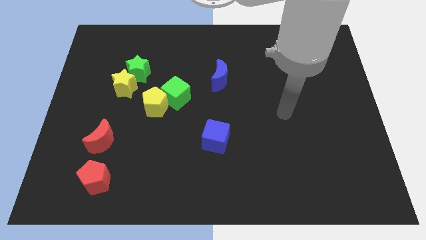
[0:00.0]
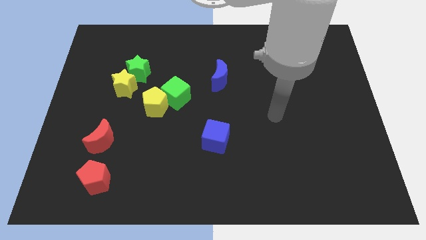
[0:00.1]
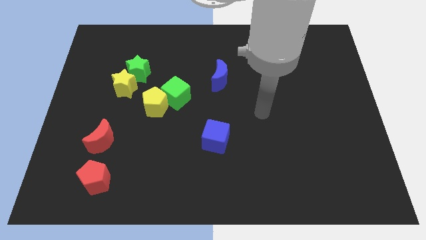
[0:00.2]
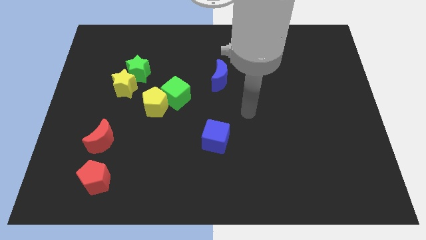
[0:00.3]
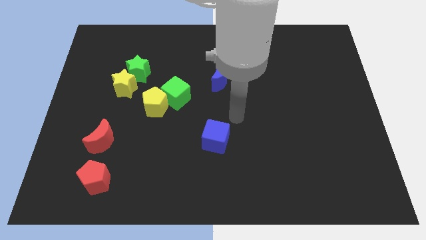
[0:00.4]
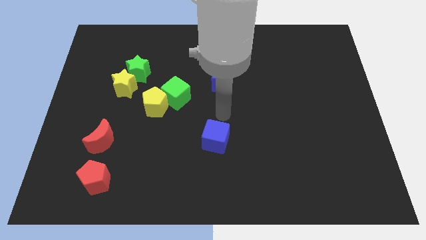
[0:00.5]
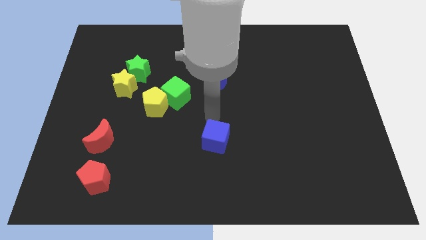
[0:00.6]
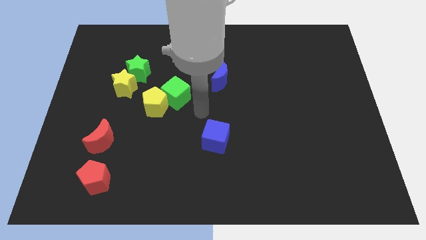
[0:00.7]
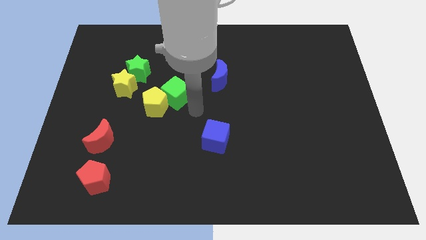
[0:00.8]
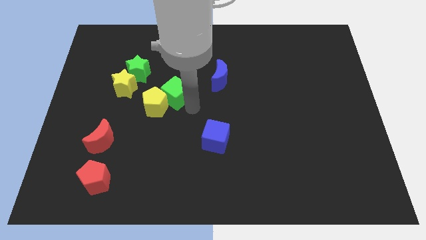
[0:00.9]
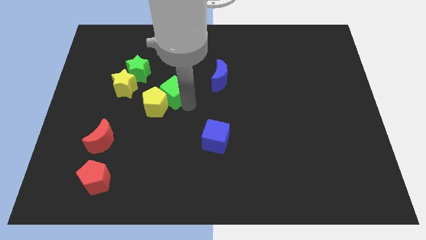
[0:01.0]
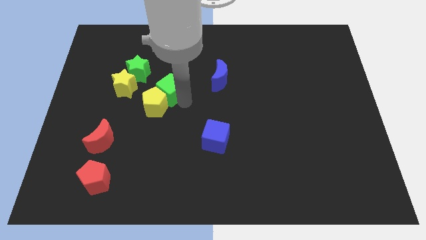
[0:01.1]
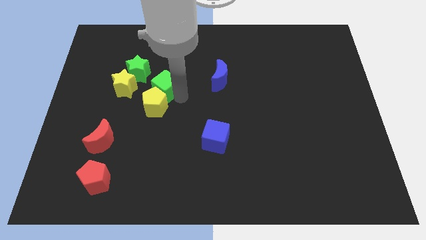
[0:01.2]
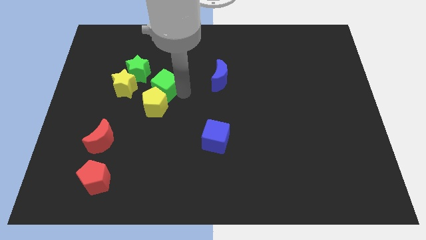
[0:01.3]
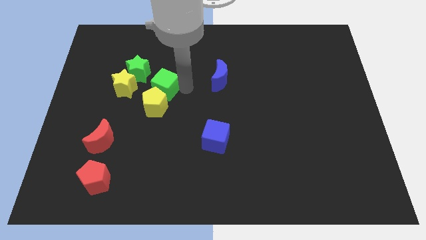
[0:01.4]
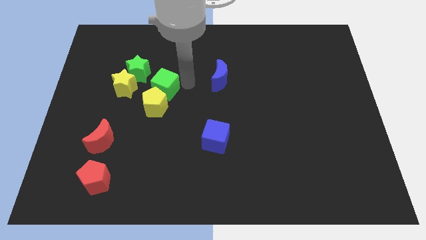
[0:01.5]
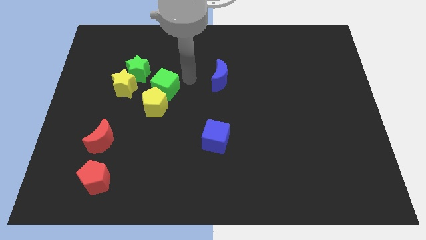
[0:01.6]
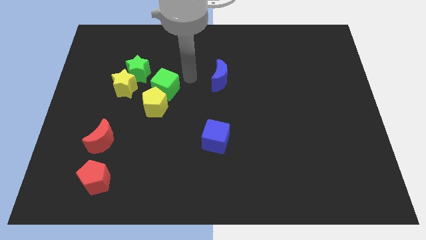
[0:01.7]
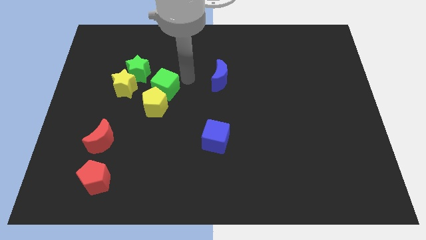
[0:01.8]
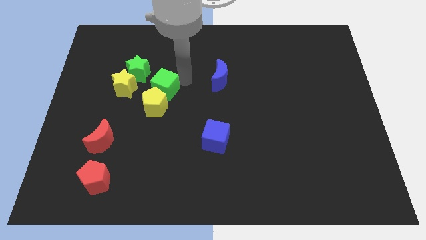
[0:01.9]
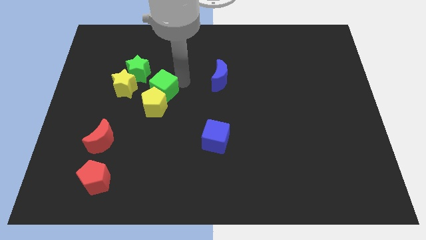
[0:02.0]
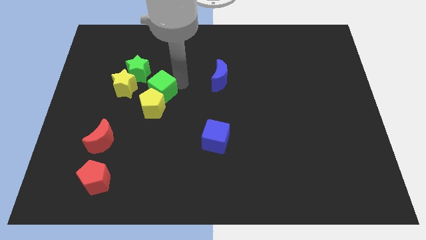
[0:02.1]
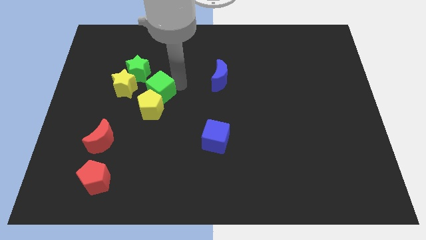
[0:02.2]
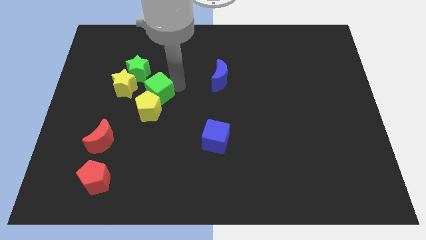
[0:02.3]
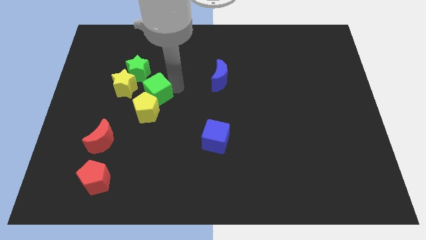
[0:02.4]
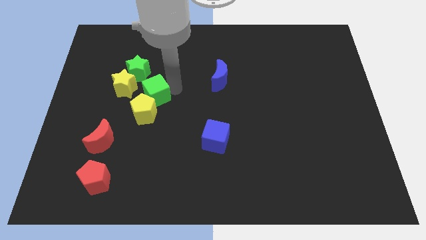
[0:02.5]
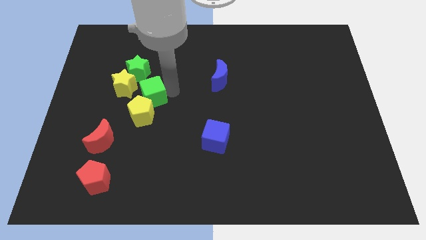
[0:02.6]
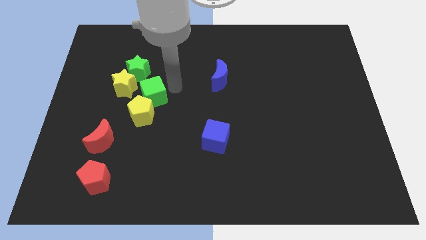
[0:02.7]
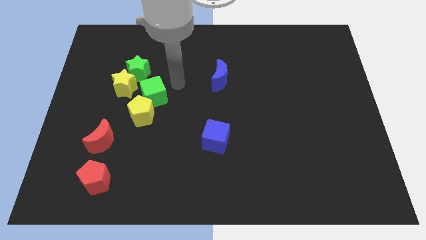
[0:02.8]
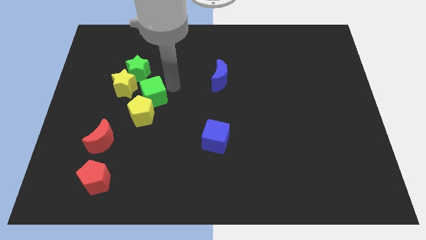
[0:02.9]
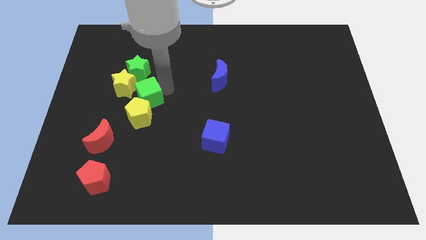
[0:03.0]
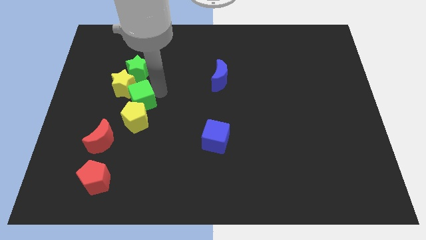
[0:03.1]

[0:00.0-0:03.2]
push the green cube to the left somewhat

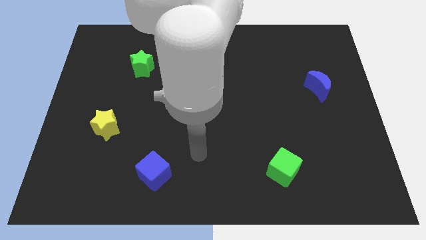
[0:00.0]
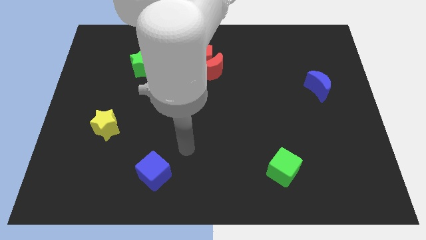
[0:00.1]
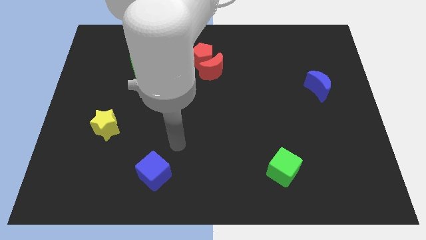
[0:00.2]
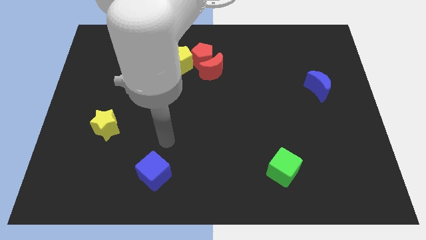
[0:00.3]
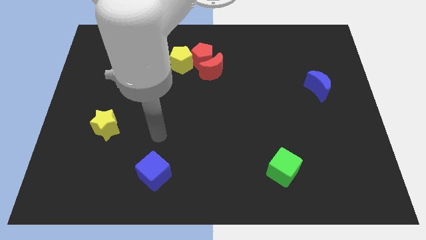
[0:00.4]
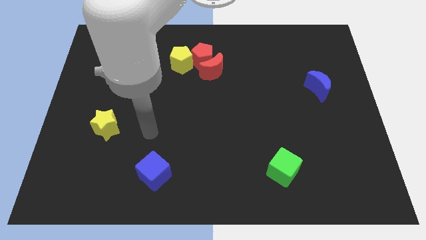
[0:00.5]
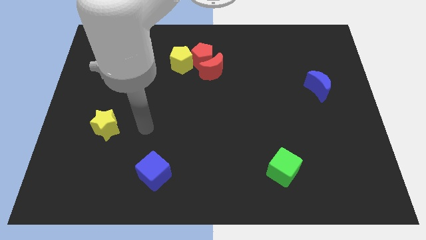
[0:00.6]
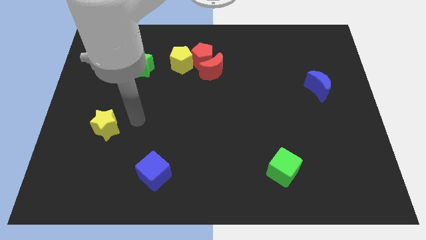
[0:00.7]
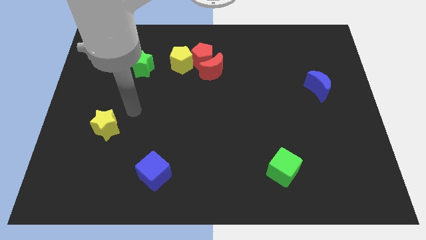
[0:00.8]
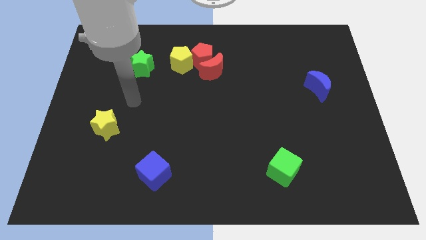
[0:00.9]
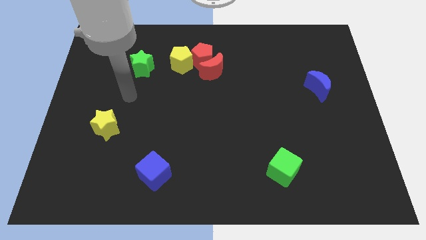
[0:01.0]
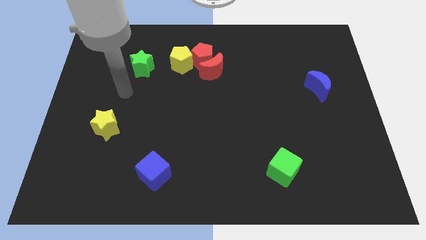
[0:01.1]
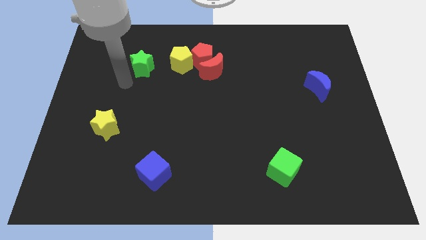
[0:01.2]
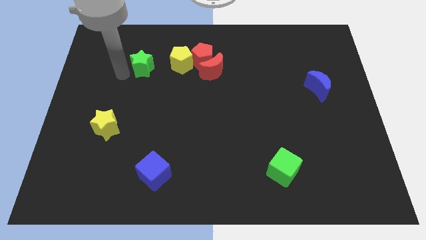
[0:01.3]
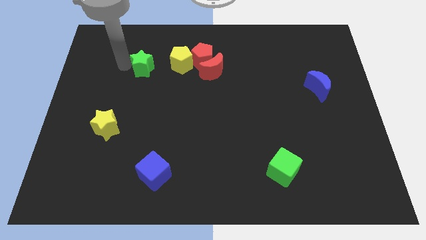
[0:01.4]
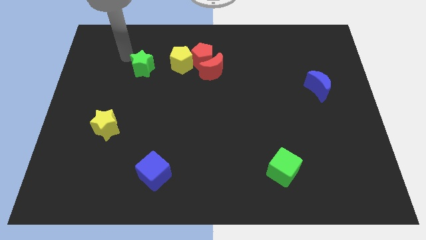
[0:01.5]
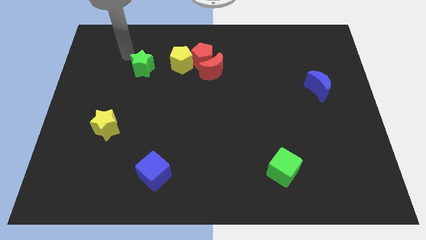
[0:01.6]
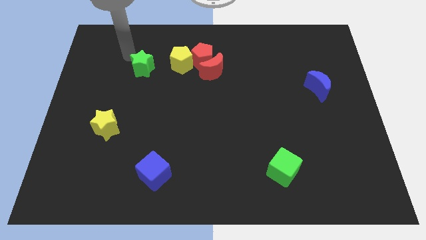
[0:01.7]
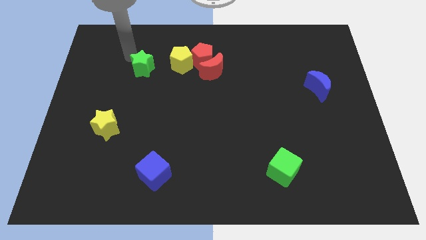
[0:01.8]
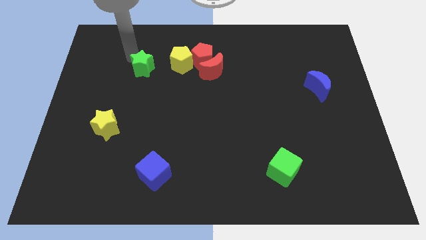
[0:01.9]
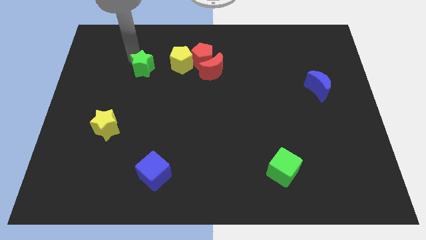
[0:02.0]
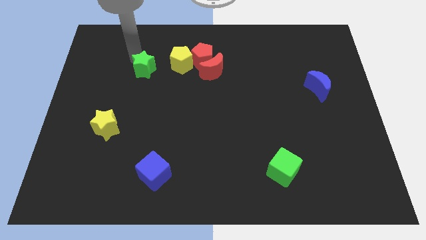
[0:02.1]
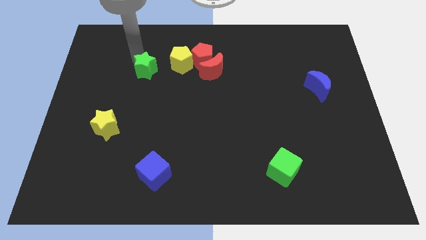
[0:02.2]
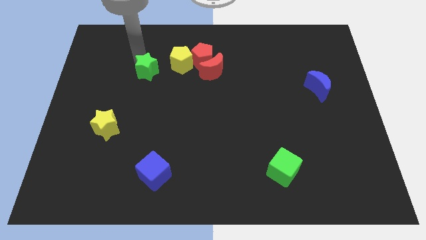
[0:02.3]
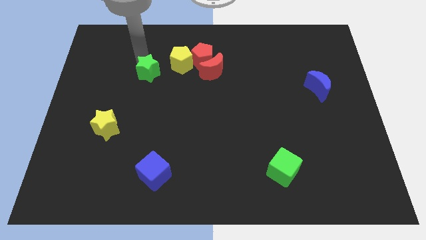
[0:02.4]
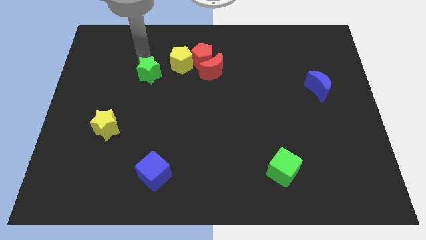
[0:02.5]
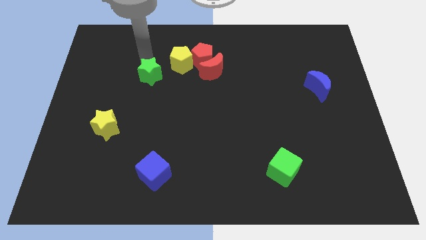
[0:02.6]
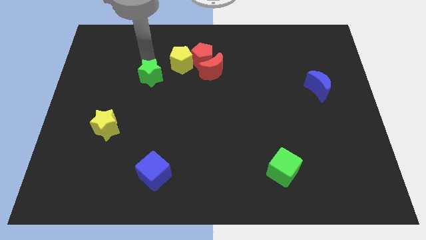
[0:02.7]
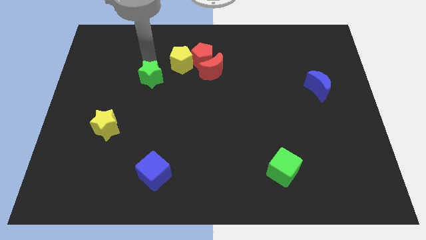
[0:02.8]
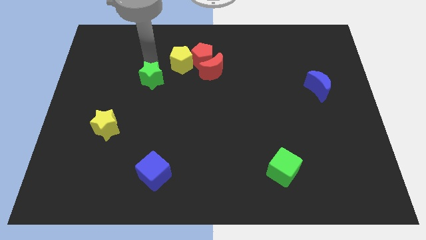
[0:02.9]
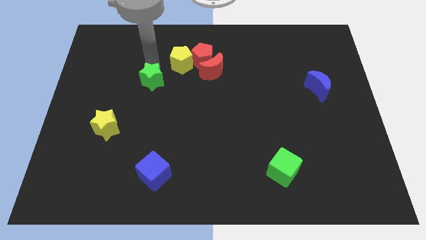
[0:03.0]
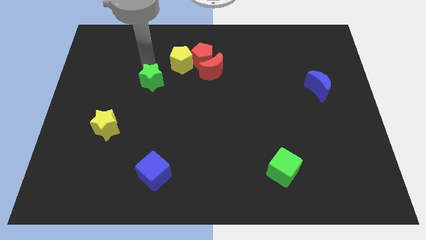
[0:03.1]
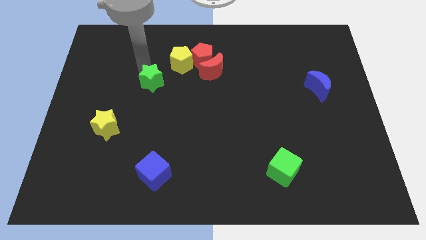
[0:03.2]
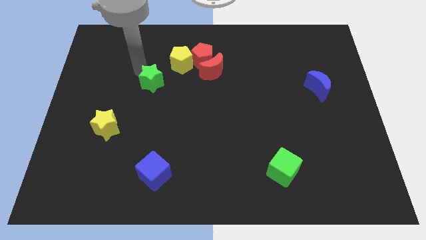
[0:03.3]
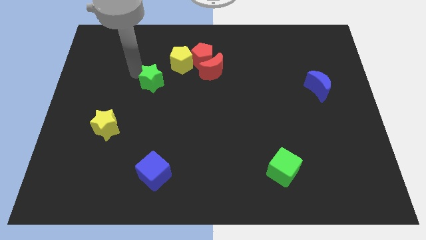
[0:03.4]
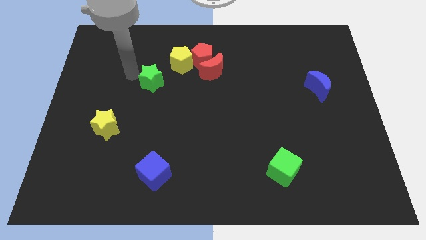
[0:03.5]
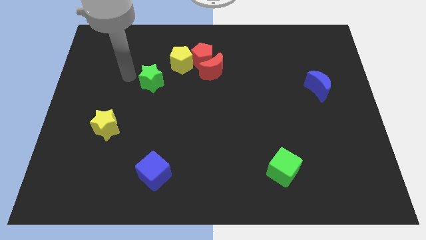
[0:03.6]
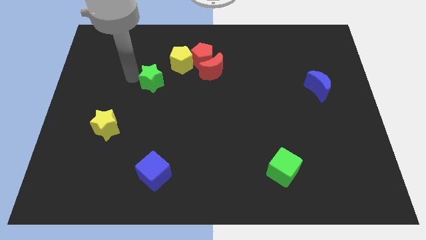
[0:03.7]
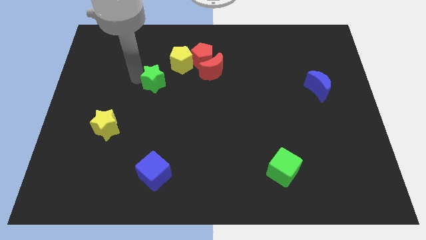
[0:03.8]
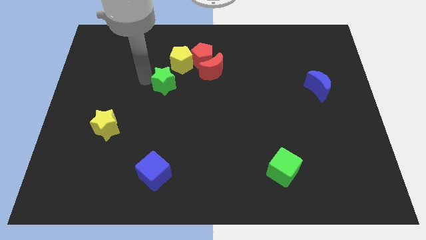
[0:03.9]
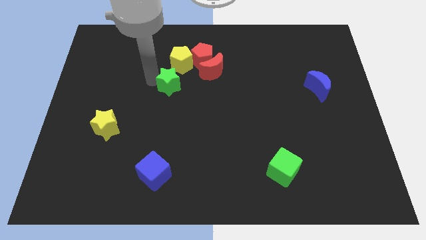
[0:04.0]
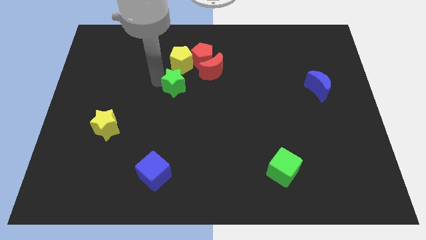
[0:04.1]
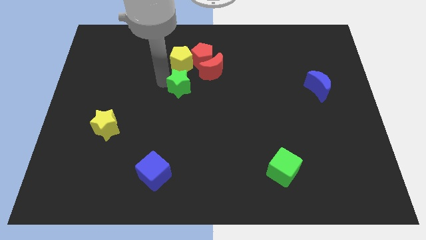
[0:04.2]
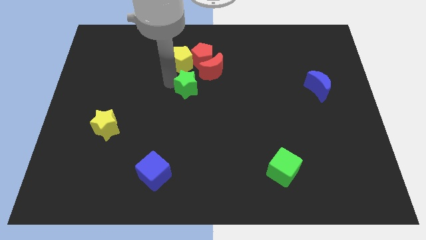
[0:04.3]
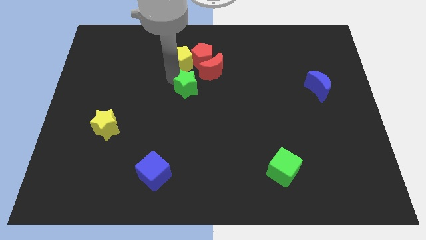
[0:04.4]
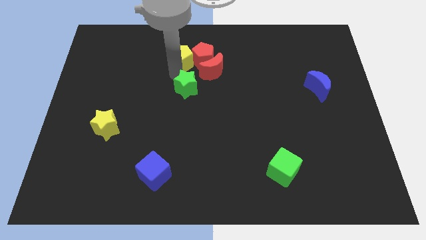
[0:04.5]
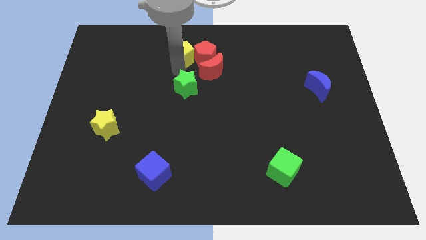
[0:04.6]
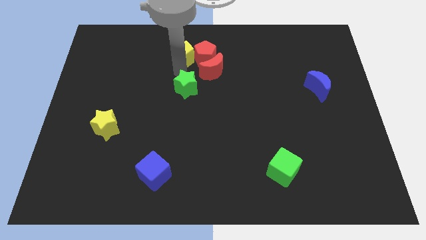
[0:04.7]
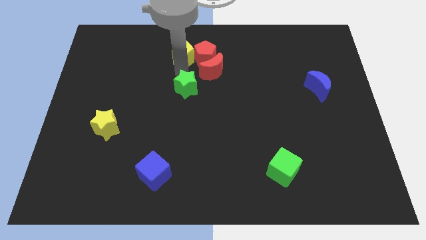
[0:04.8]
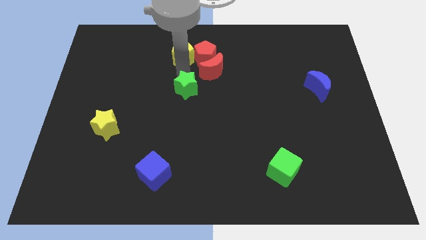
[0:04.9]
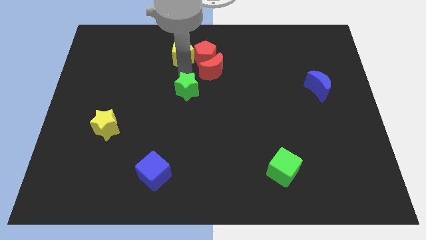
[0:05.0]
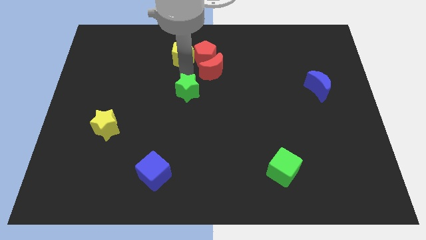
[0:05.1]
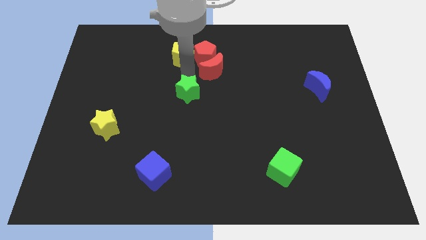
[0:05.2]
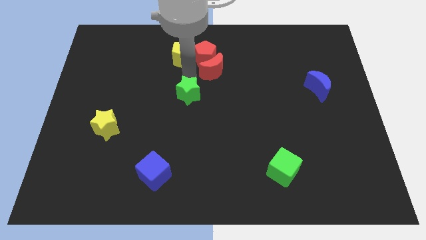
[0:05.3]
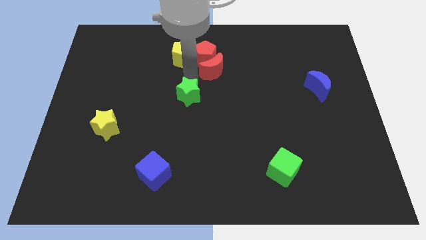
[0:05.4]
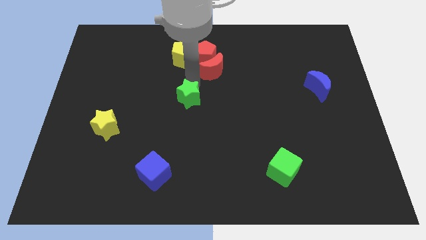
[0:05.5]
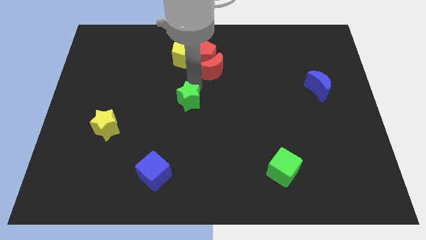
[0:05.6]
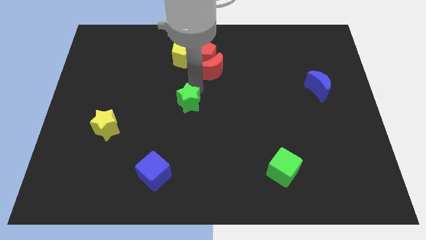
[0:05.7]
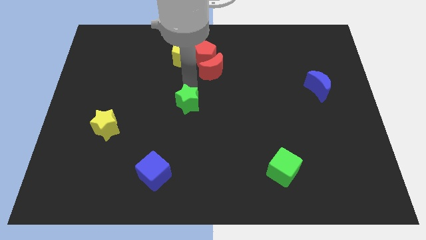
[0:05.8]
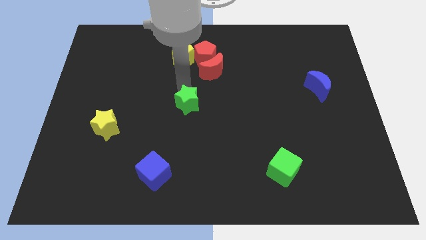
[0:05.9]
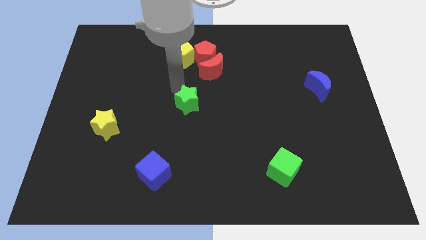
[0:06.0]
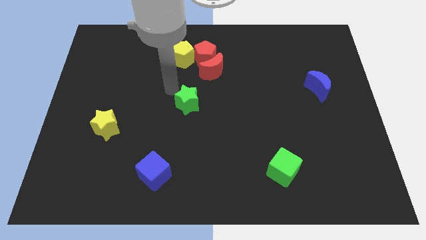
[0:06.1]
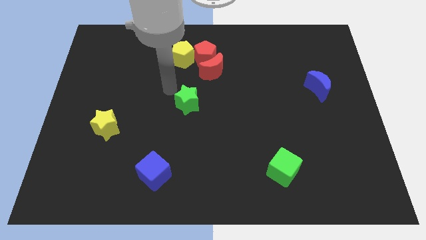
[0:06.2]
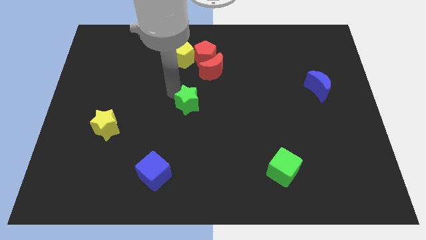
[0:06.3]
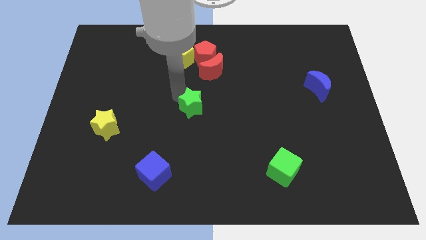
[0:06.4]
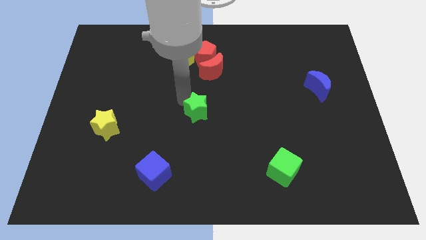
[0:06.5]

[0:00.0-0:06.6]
push the green star down and to the right
